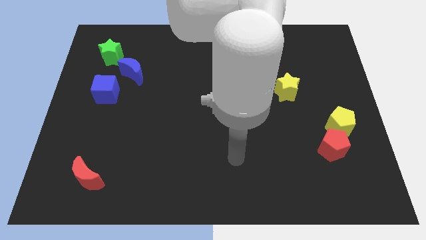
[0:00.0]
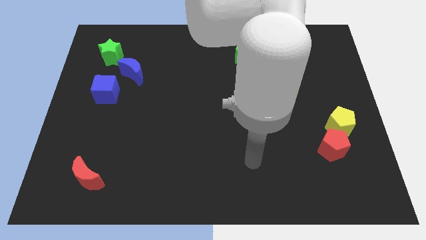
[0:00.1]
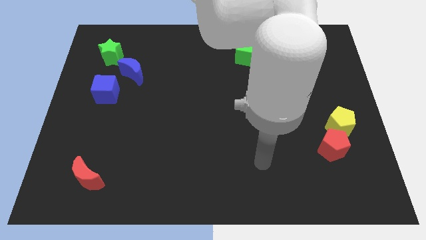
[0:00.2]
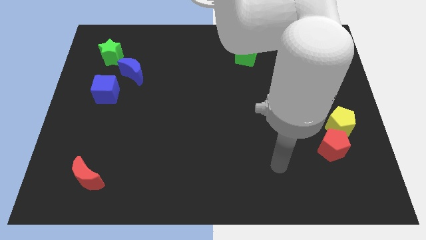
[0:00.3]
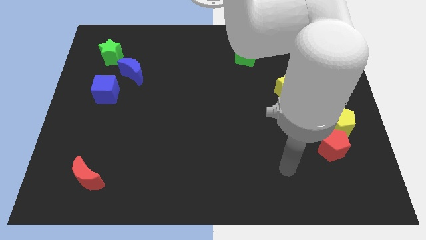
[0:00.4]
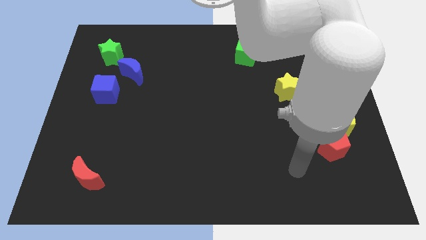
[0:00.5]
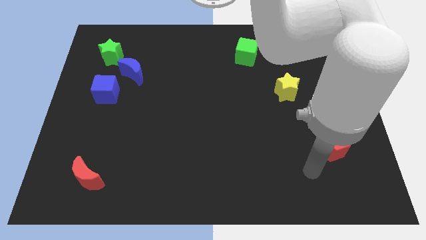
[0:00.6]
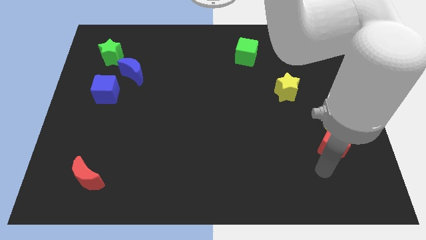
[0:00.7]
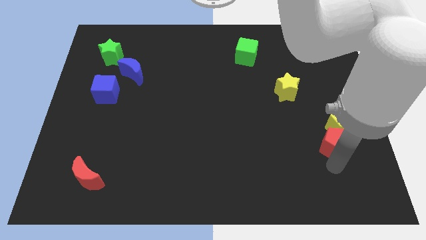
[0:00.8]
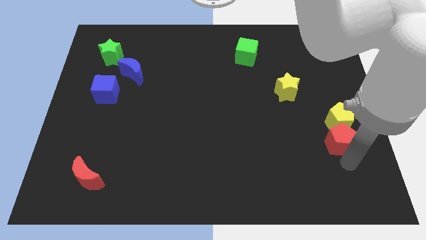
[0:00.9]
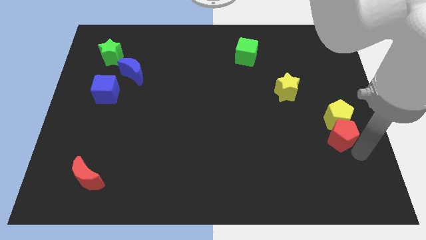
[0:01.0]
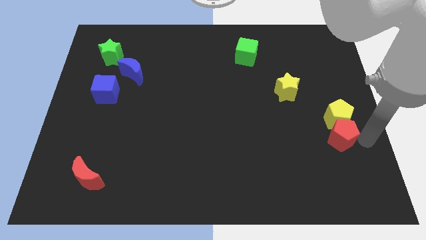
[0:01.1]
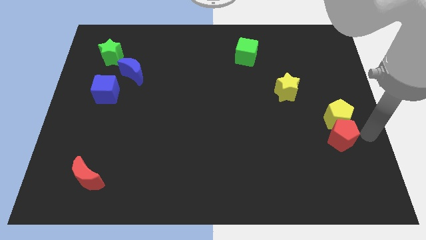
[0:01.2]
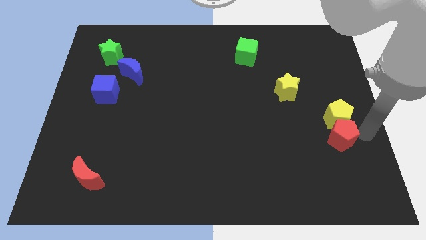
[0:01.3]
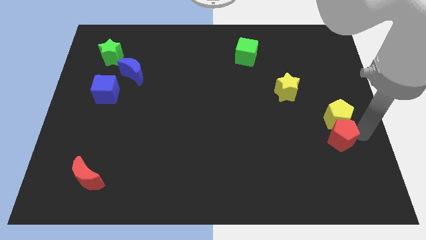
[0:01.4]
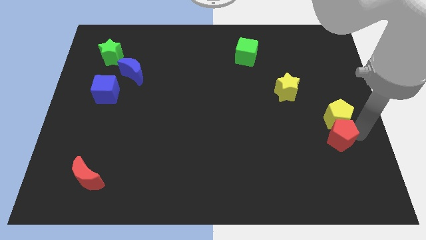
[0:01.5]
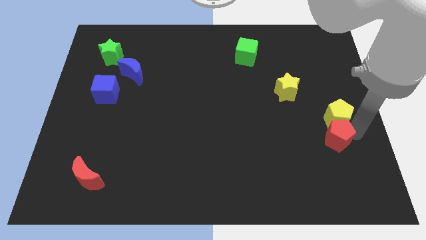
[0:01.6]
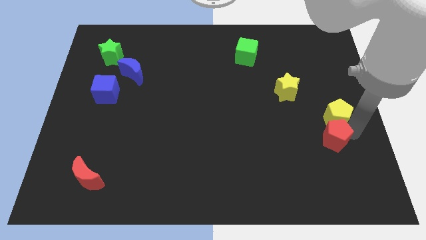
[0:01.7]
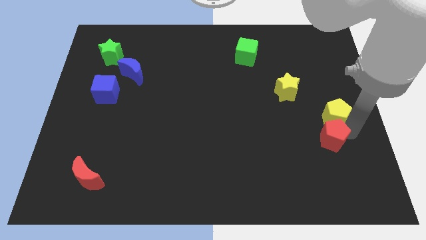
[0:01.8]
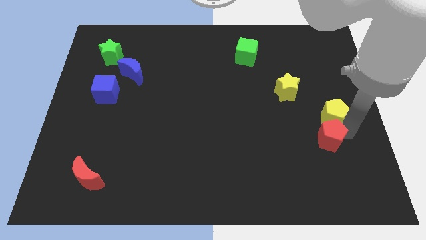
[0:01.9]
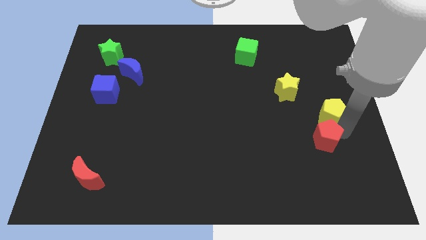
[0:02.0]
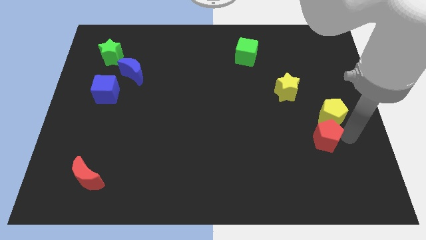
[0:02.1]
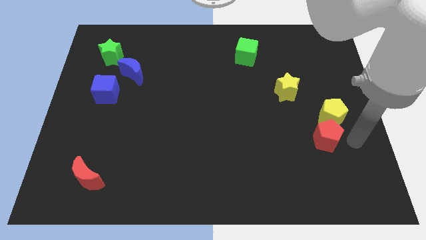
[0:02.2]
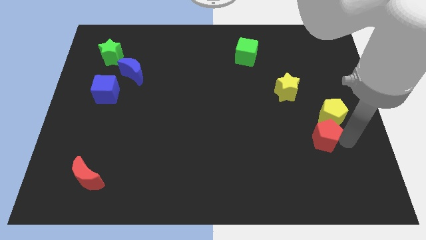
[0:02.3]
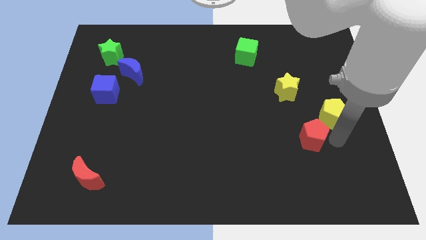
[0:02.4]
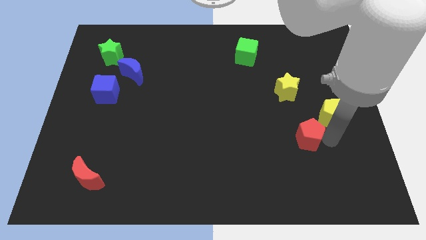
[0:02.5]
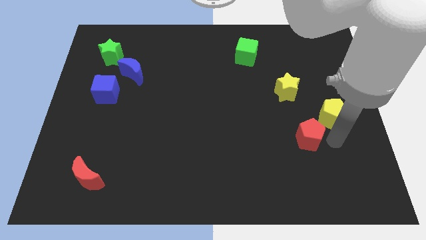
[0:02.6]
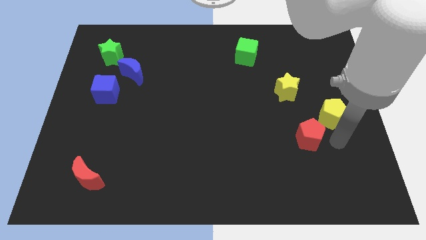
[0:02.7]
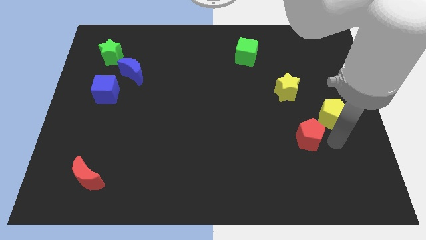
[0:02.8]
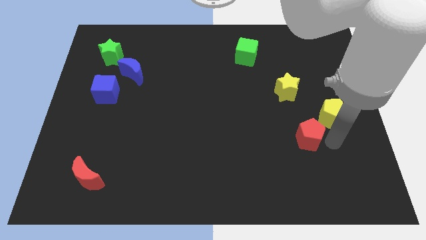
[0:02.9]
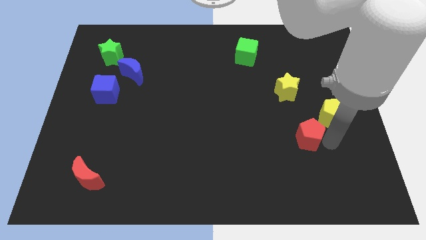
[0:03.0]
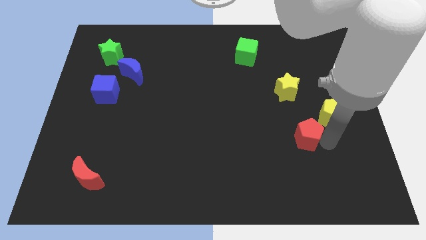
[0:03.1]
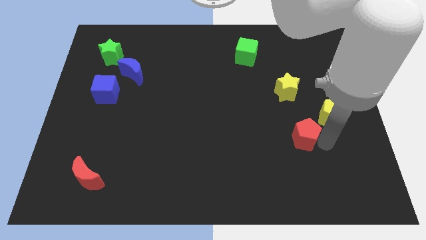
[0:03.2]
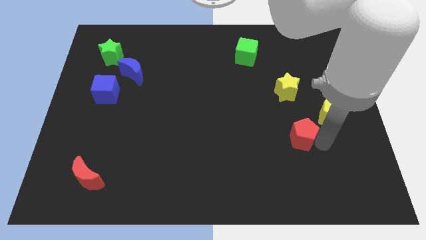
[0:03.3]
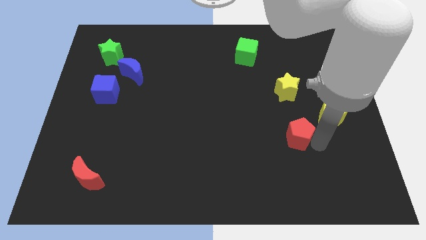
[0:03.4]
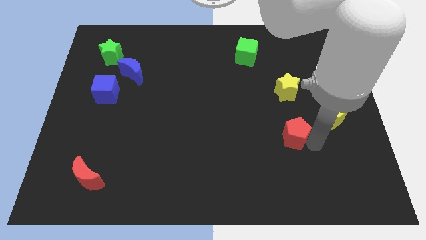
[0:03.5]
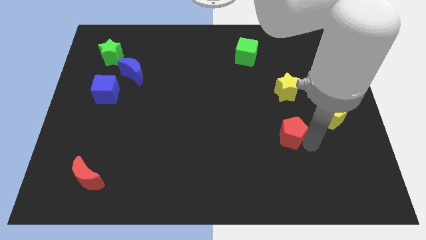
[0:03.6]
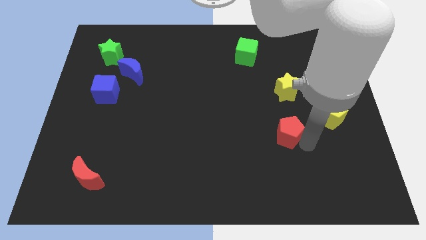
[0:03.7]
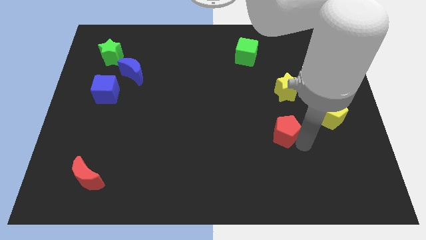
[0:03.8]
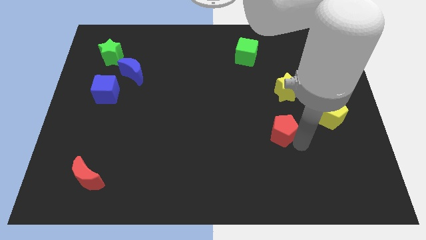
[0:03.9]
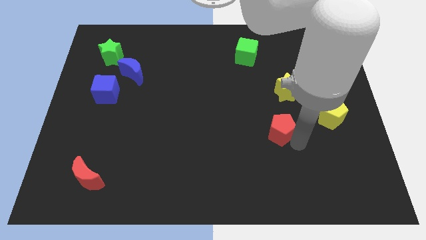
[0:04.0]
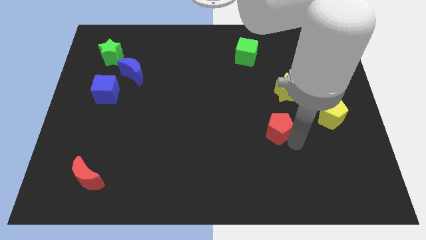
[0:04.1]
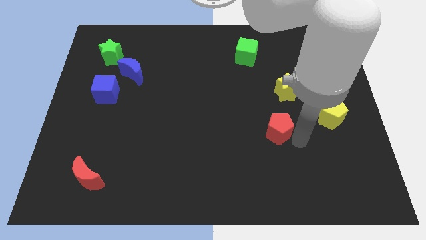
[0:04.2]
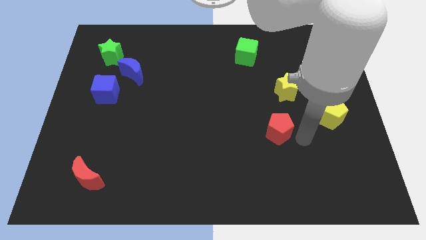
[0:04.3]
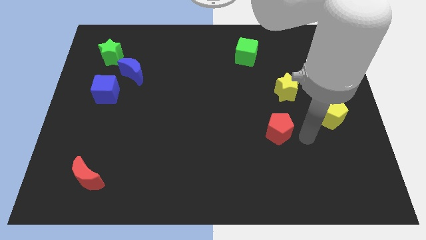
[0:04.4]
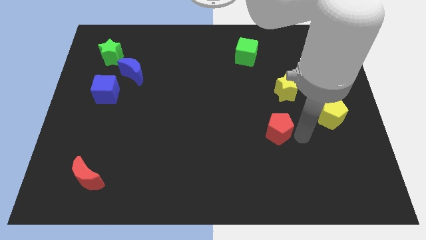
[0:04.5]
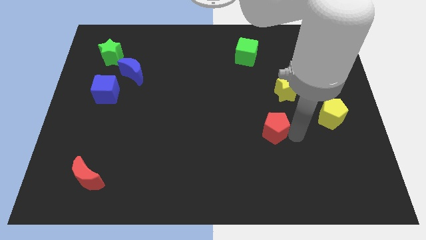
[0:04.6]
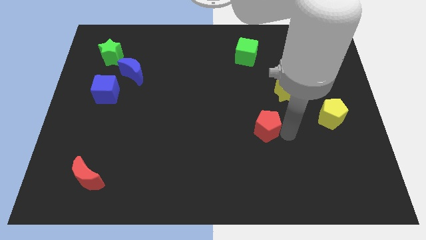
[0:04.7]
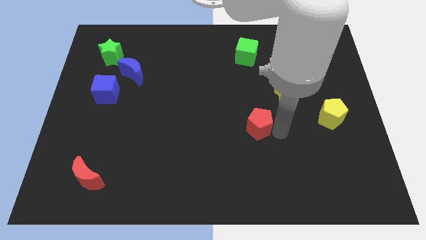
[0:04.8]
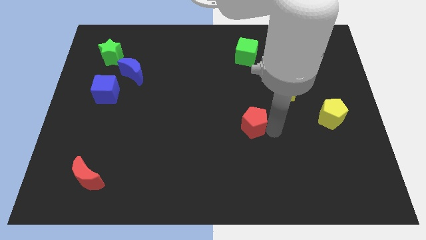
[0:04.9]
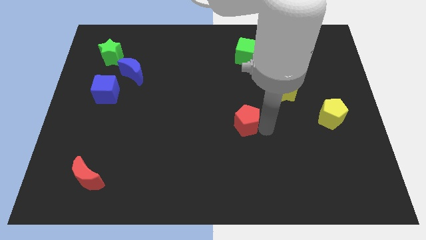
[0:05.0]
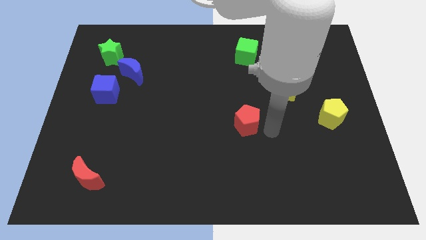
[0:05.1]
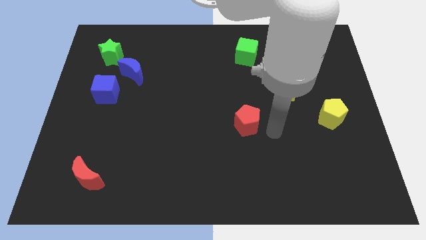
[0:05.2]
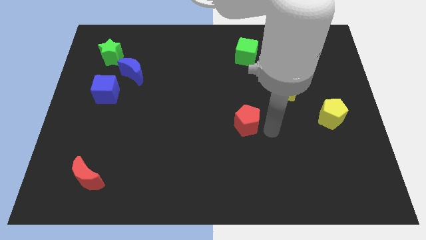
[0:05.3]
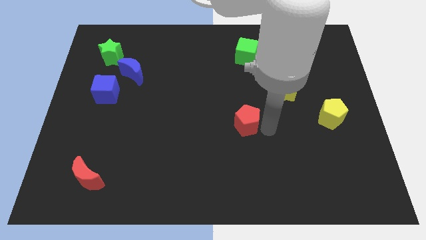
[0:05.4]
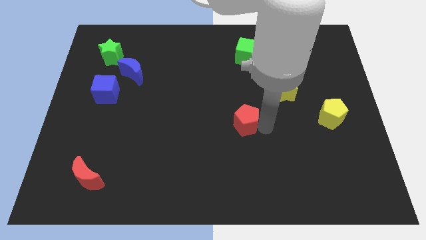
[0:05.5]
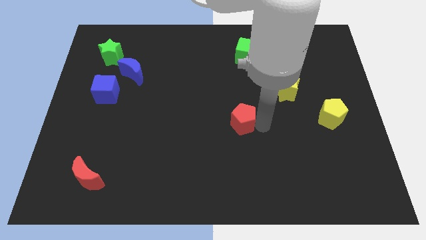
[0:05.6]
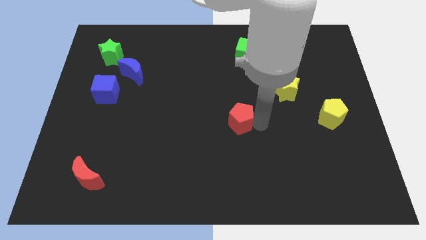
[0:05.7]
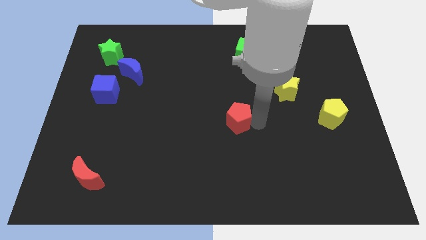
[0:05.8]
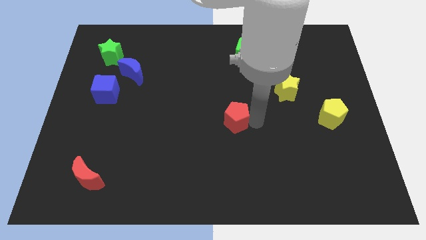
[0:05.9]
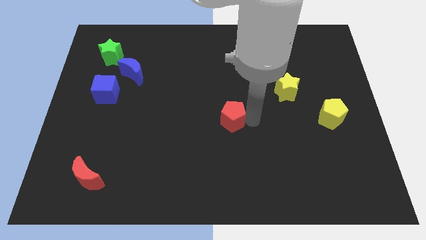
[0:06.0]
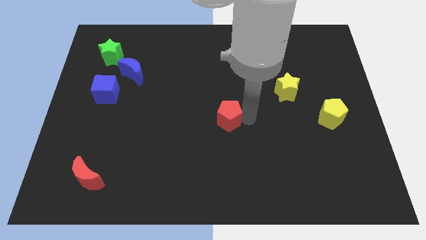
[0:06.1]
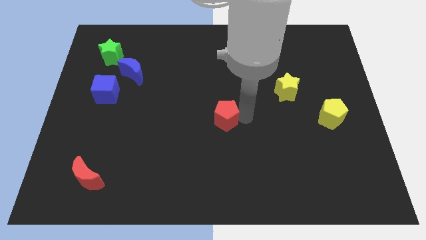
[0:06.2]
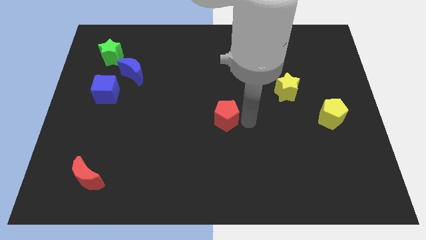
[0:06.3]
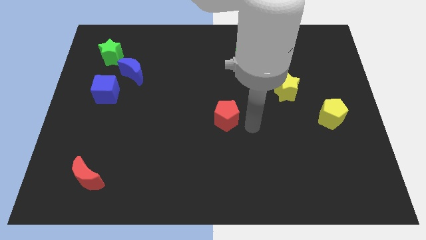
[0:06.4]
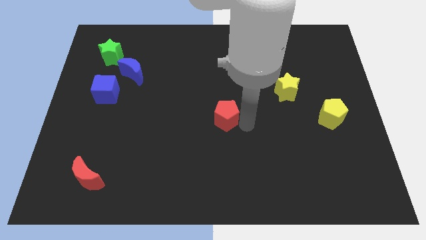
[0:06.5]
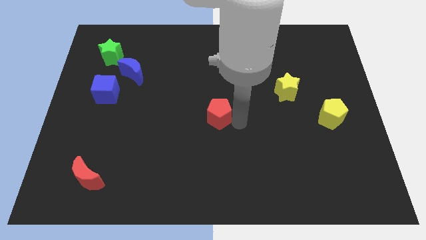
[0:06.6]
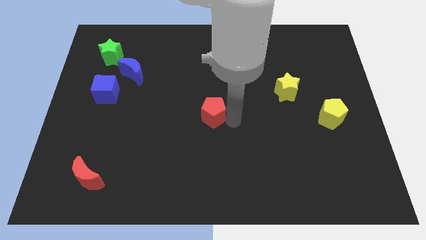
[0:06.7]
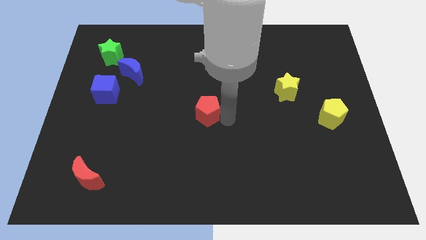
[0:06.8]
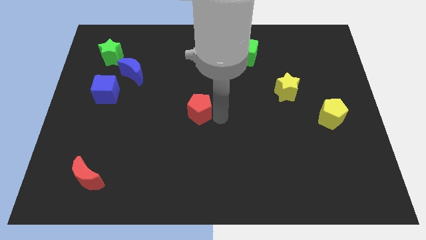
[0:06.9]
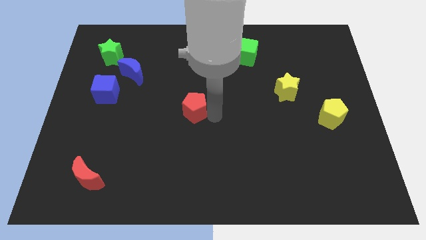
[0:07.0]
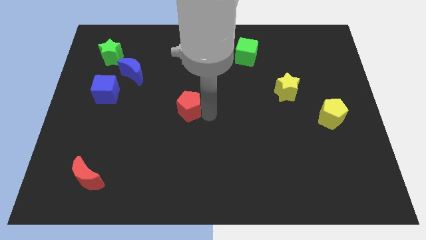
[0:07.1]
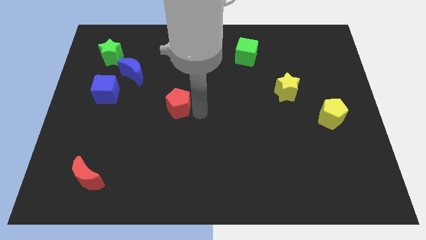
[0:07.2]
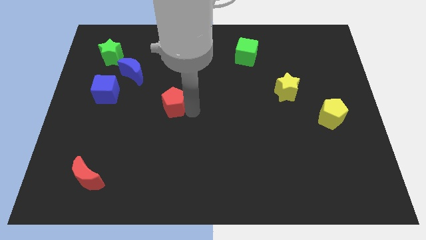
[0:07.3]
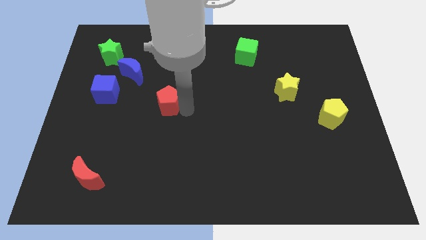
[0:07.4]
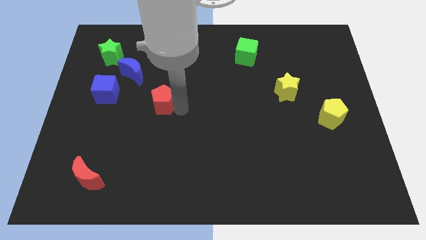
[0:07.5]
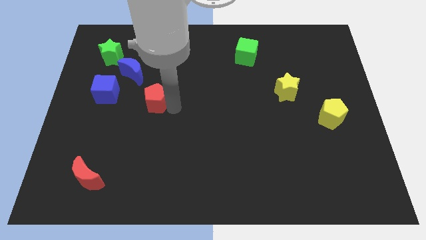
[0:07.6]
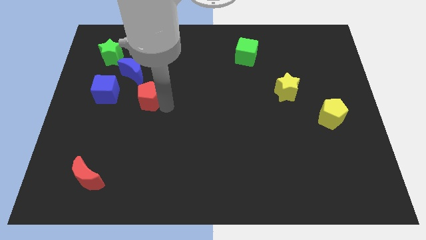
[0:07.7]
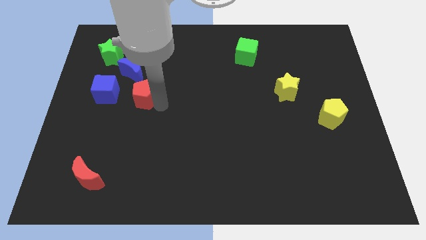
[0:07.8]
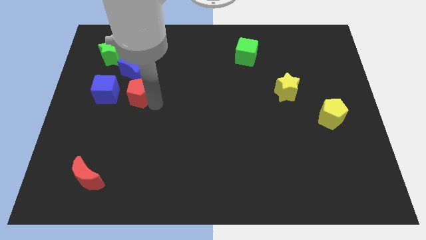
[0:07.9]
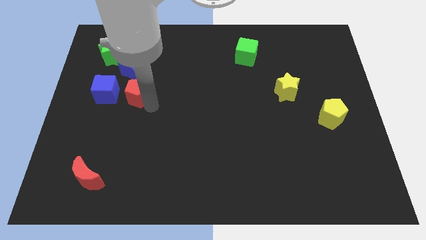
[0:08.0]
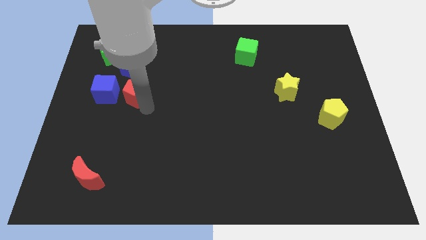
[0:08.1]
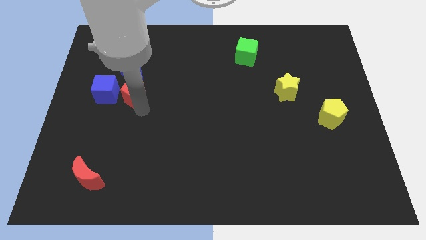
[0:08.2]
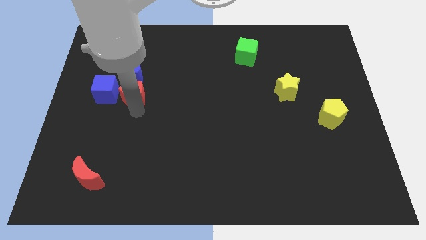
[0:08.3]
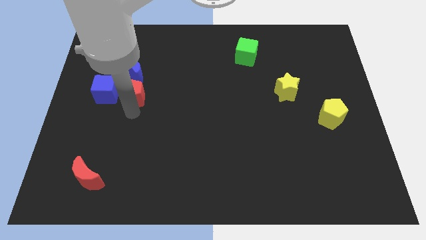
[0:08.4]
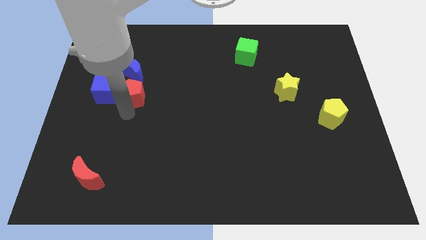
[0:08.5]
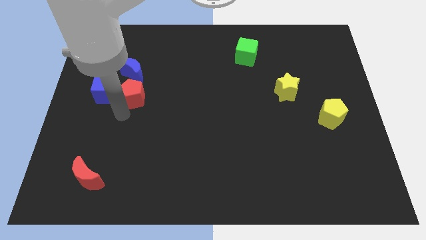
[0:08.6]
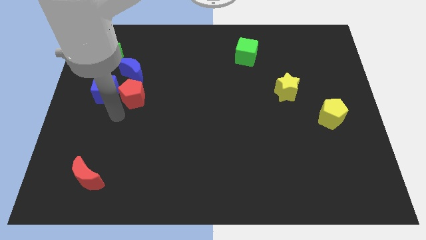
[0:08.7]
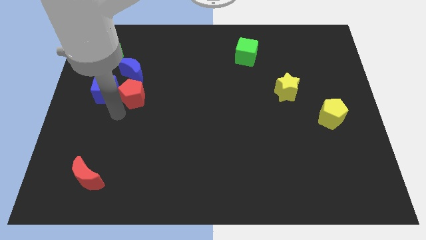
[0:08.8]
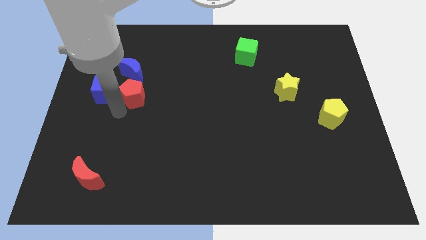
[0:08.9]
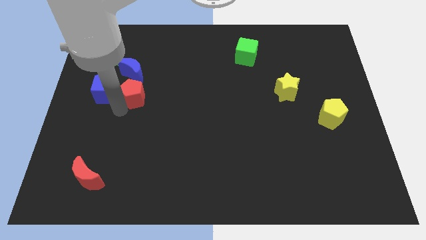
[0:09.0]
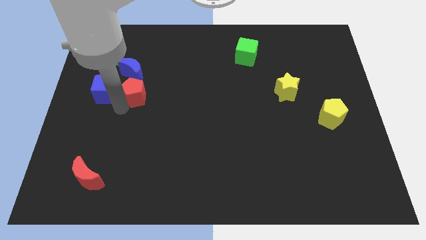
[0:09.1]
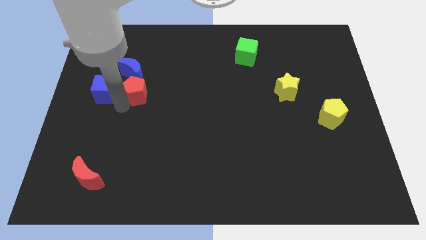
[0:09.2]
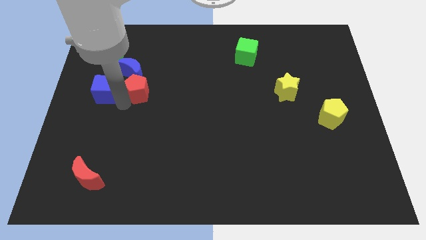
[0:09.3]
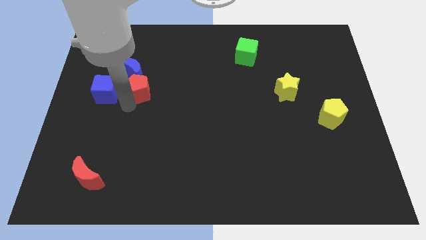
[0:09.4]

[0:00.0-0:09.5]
move the red pentagon towards the blue moon
